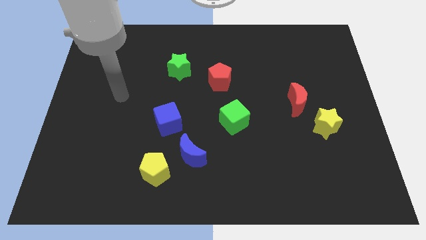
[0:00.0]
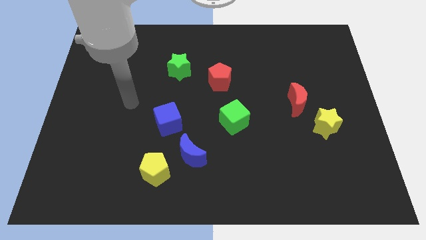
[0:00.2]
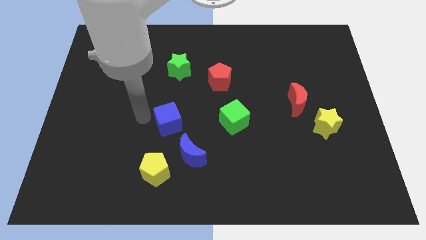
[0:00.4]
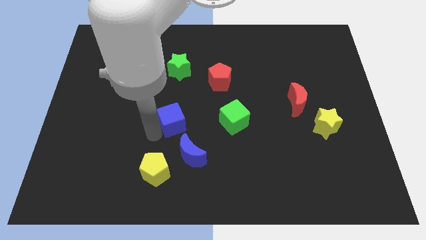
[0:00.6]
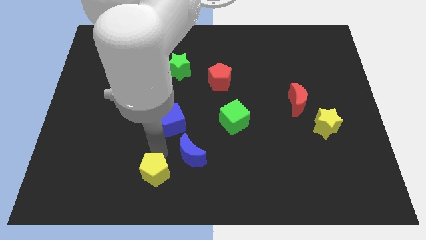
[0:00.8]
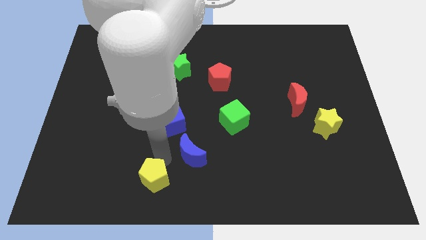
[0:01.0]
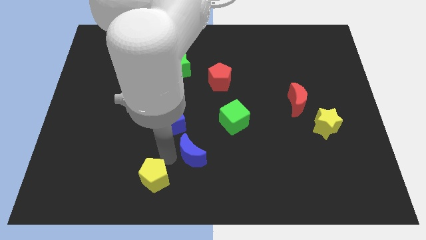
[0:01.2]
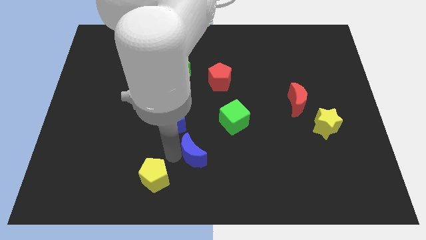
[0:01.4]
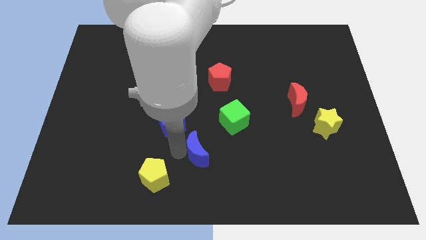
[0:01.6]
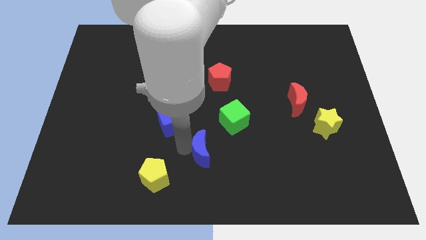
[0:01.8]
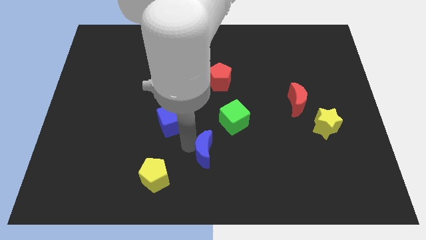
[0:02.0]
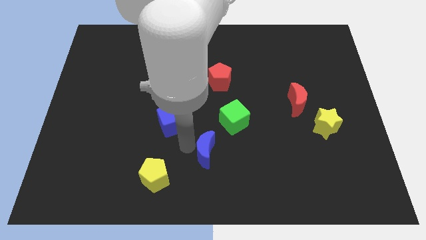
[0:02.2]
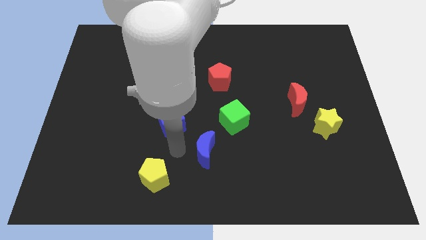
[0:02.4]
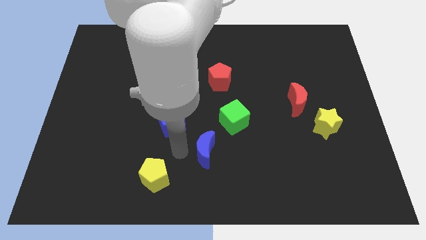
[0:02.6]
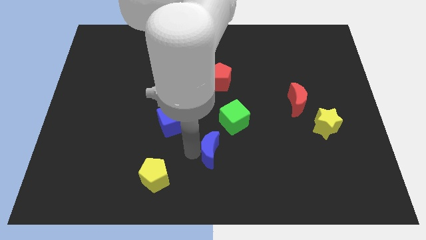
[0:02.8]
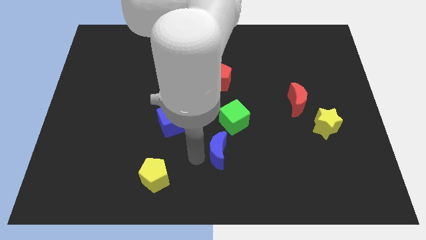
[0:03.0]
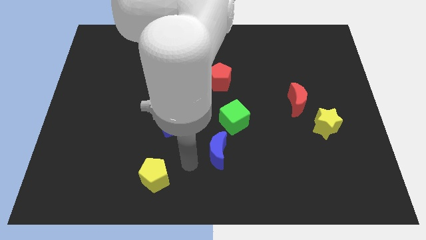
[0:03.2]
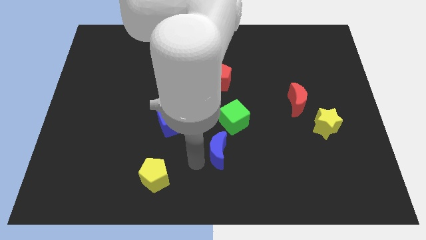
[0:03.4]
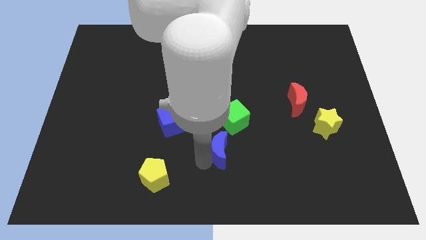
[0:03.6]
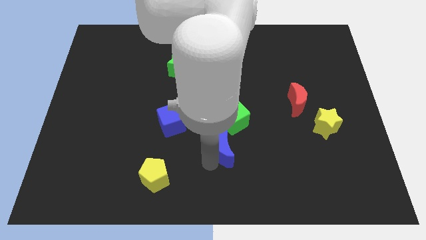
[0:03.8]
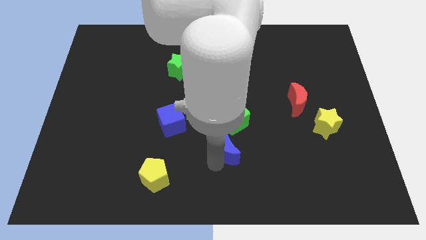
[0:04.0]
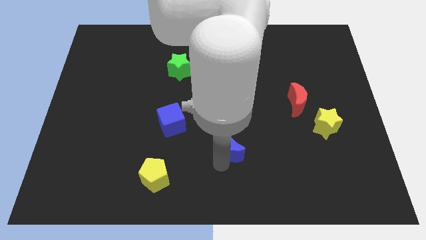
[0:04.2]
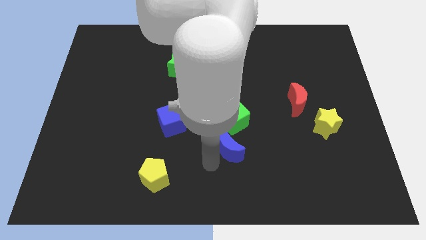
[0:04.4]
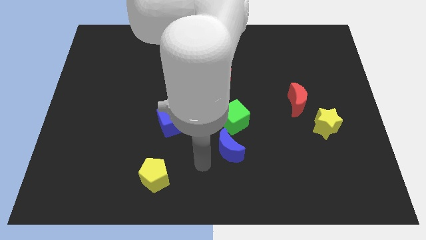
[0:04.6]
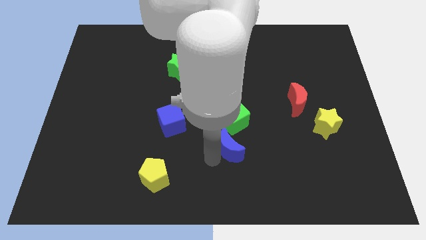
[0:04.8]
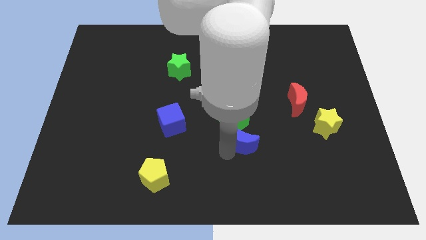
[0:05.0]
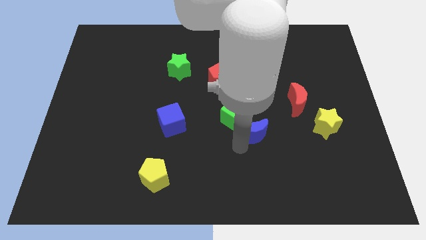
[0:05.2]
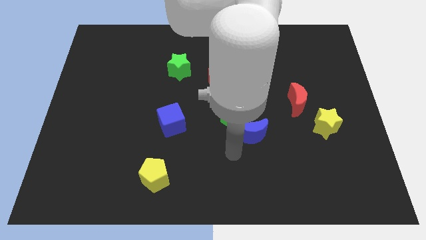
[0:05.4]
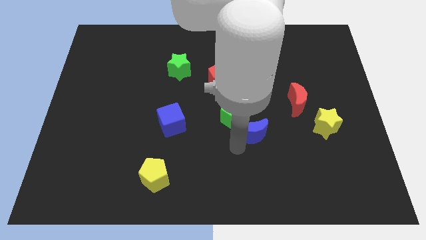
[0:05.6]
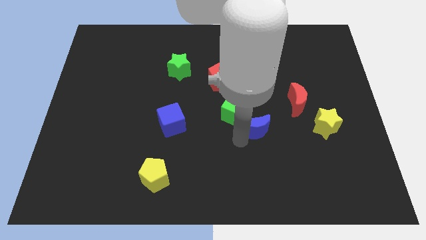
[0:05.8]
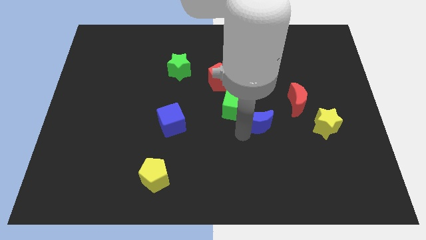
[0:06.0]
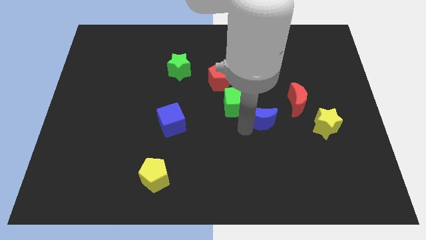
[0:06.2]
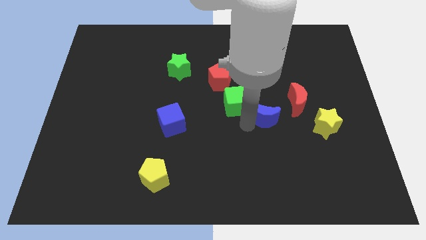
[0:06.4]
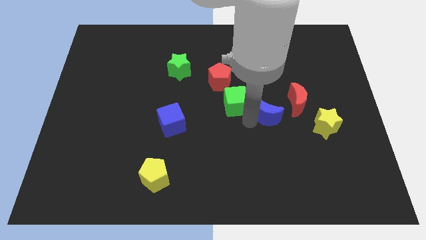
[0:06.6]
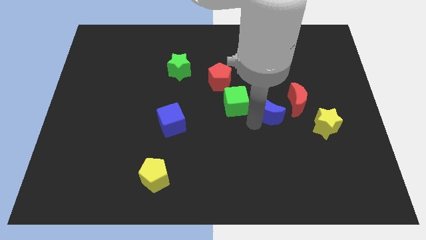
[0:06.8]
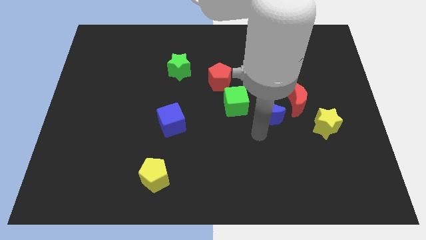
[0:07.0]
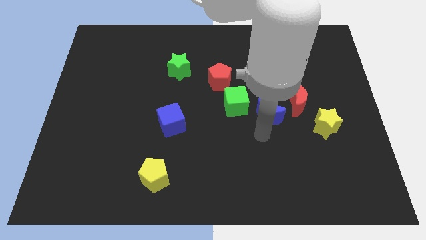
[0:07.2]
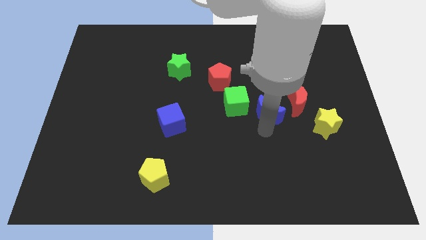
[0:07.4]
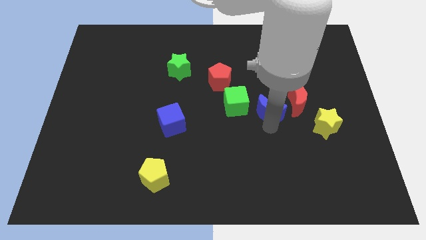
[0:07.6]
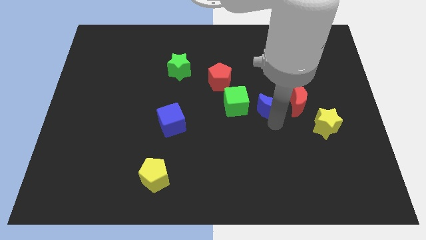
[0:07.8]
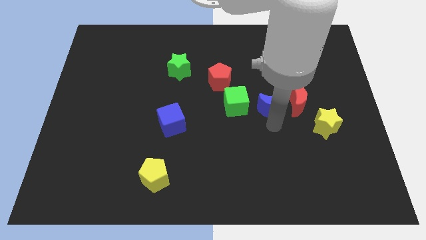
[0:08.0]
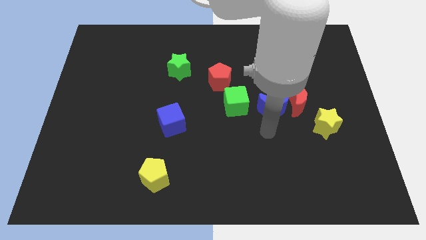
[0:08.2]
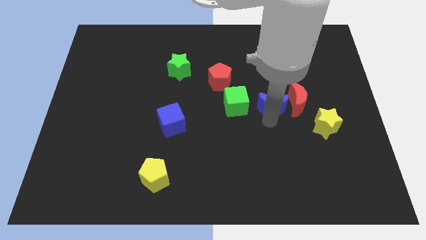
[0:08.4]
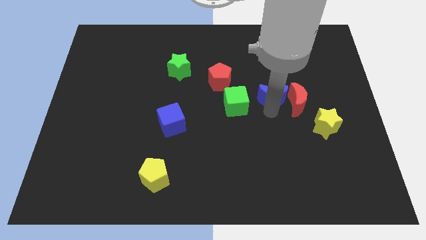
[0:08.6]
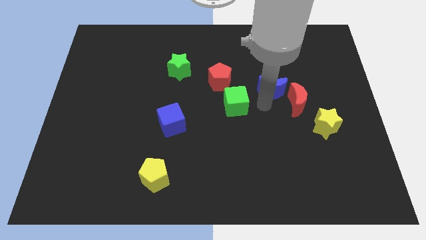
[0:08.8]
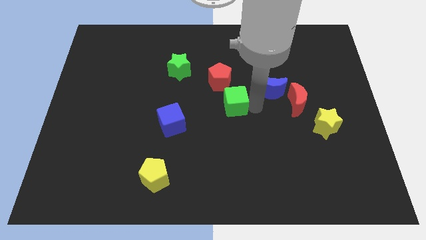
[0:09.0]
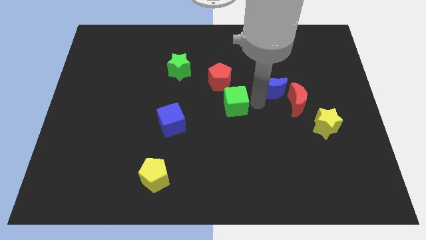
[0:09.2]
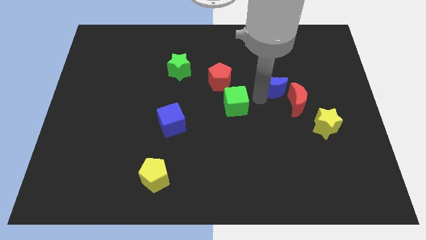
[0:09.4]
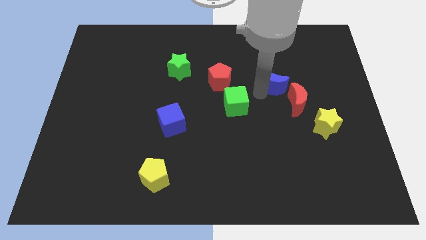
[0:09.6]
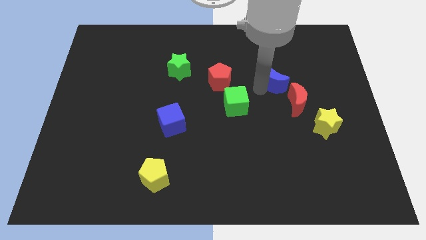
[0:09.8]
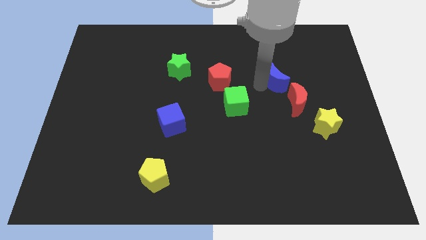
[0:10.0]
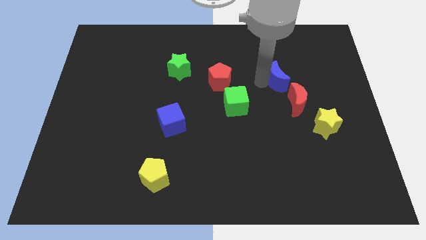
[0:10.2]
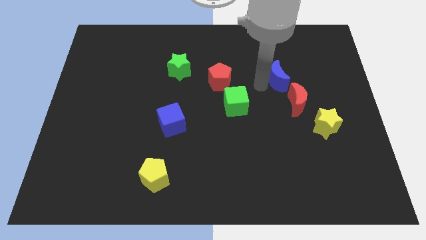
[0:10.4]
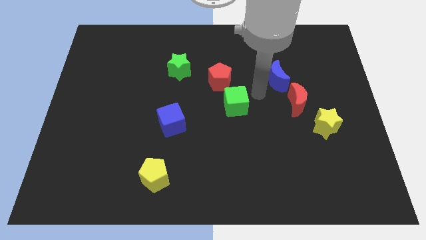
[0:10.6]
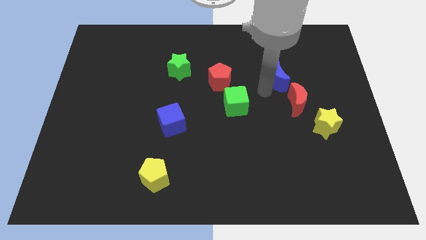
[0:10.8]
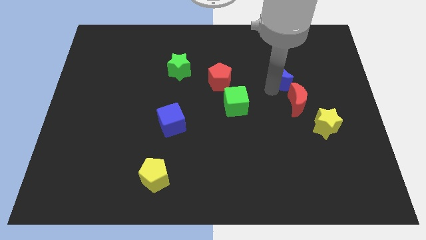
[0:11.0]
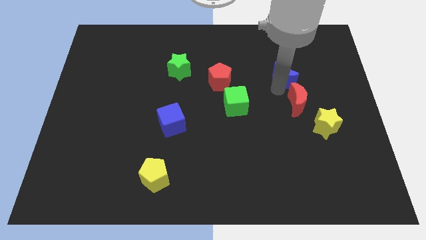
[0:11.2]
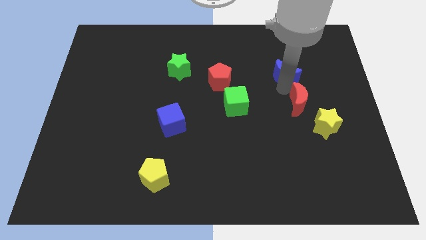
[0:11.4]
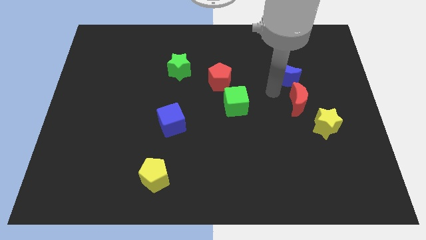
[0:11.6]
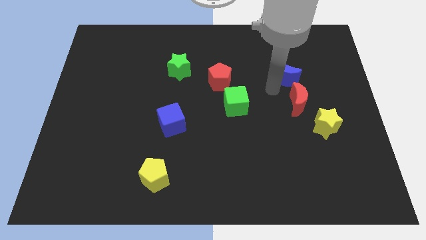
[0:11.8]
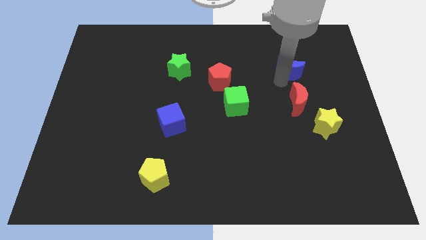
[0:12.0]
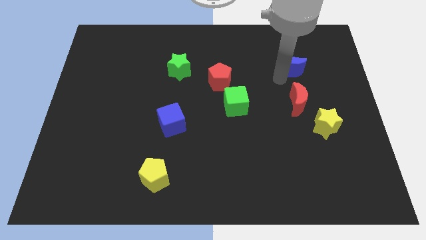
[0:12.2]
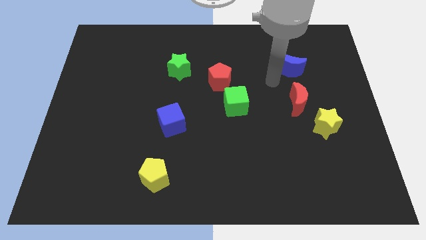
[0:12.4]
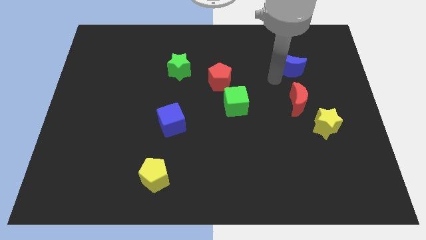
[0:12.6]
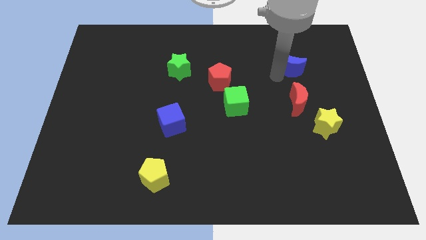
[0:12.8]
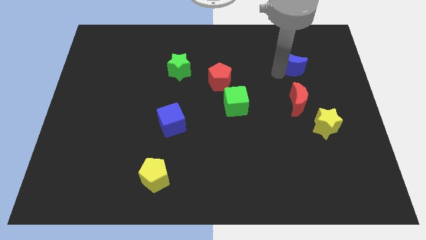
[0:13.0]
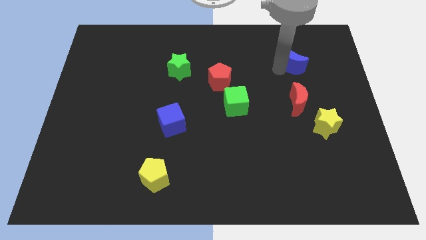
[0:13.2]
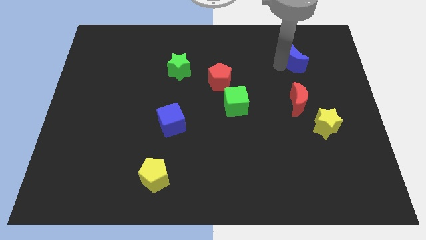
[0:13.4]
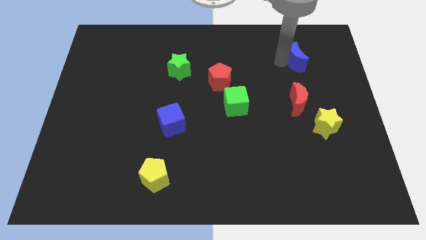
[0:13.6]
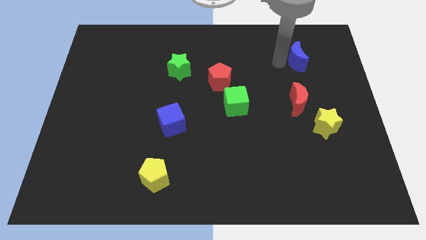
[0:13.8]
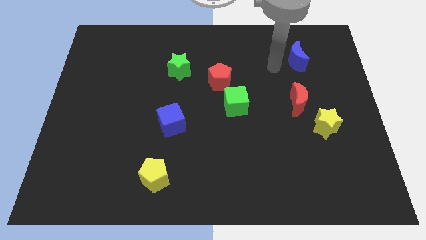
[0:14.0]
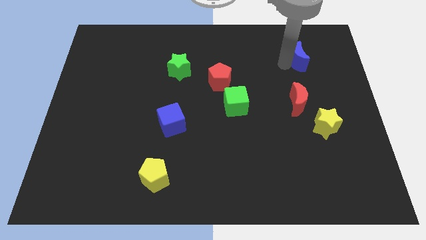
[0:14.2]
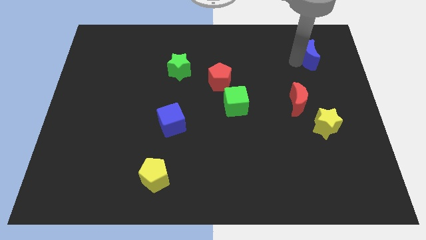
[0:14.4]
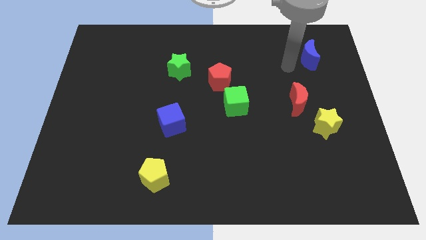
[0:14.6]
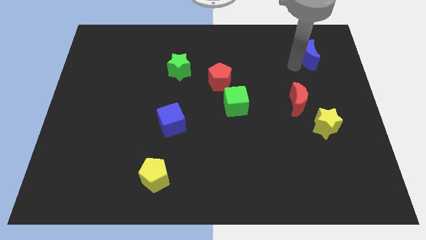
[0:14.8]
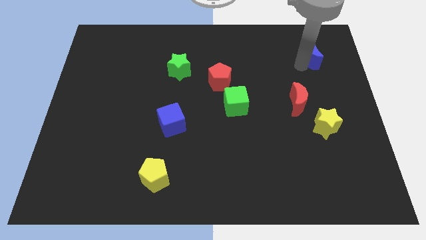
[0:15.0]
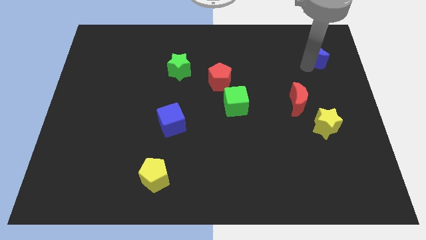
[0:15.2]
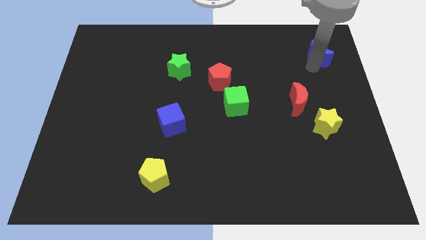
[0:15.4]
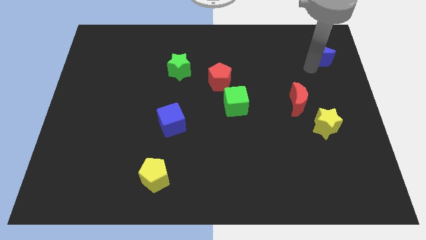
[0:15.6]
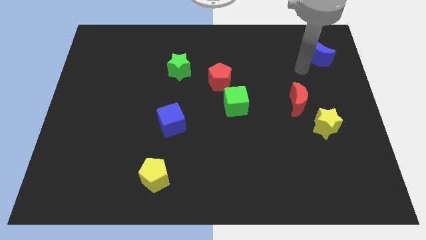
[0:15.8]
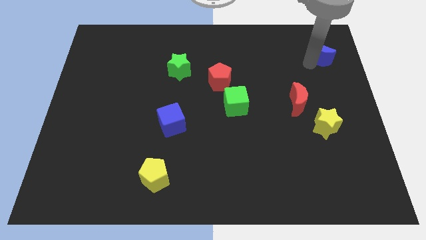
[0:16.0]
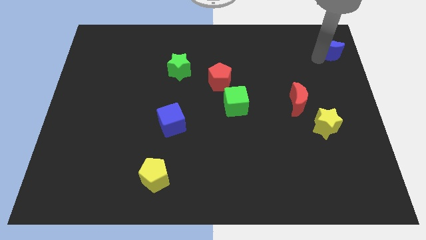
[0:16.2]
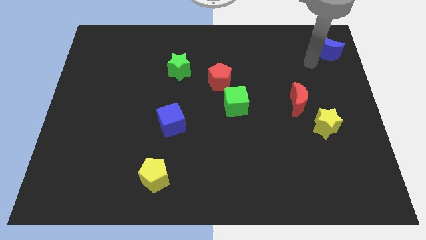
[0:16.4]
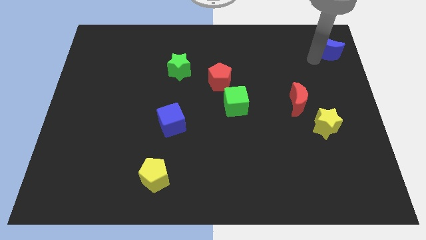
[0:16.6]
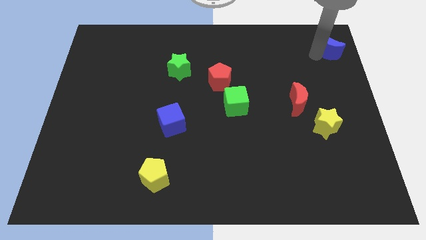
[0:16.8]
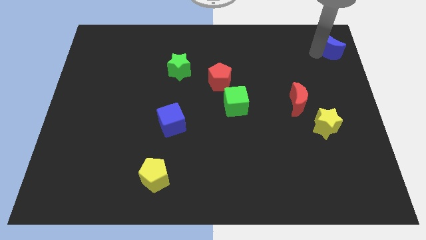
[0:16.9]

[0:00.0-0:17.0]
slide the blue moon to the top right corner
